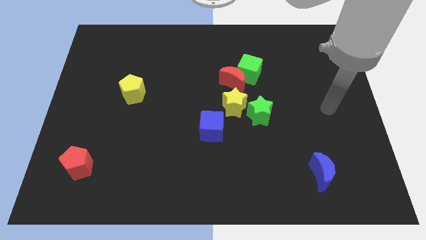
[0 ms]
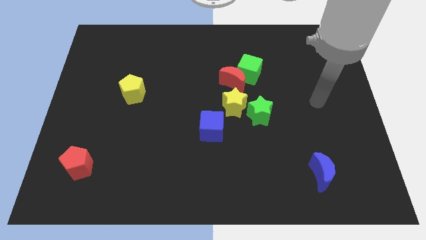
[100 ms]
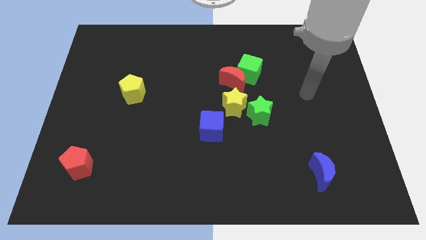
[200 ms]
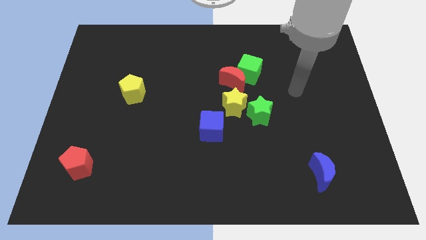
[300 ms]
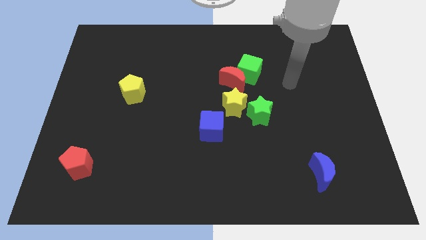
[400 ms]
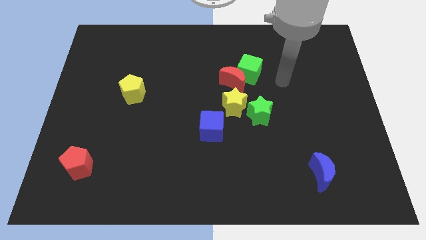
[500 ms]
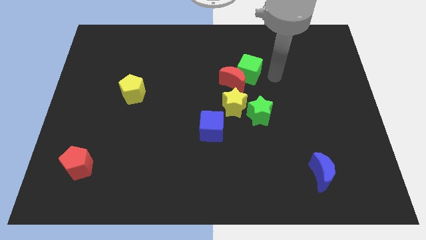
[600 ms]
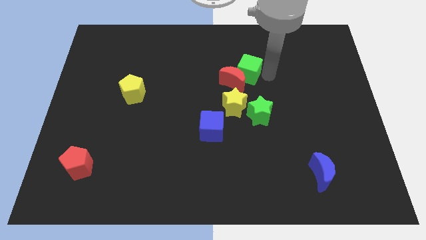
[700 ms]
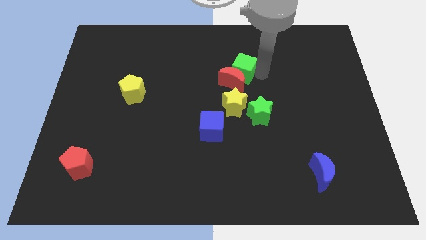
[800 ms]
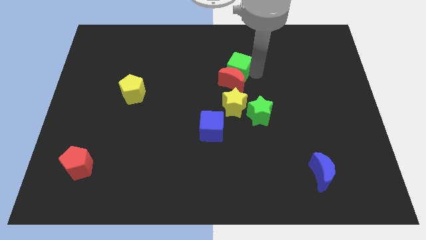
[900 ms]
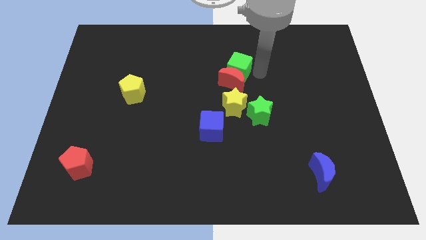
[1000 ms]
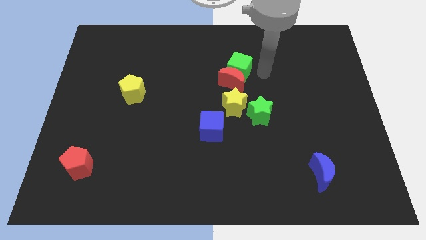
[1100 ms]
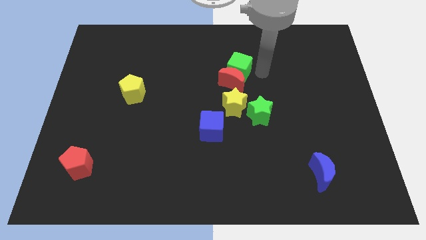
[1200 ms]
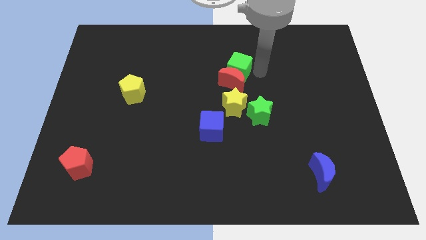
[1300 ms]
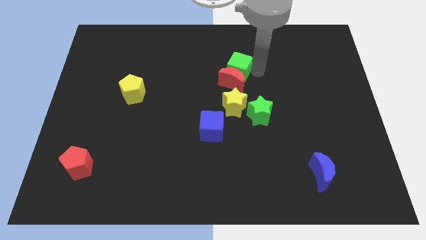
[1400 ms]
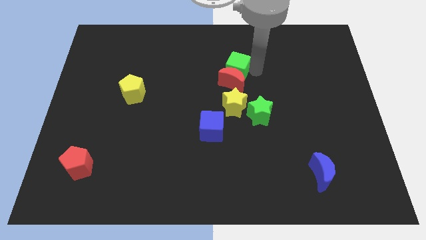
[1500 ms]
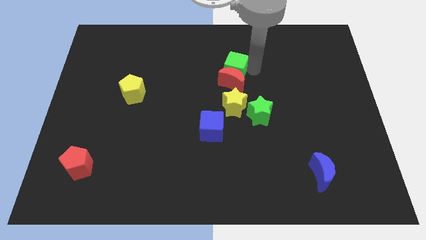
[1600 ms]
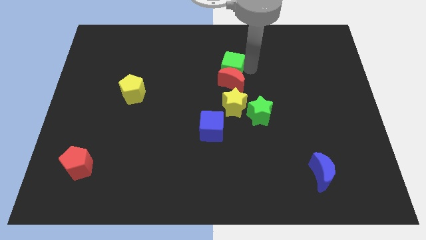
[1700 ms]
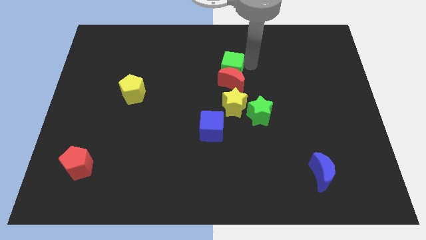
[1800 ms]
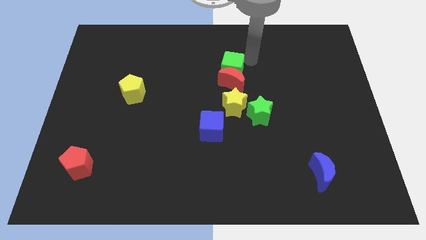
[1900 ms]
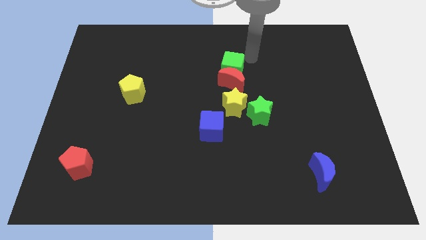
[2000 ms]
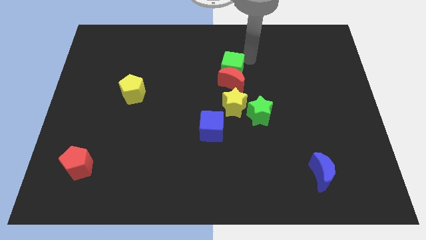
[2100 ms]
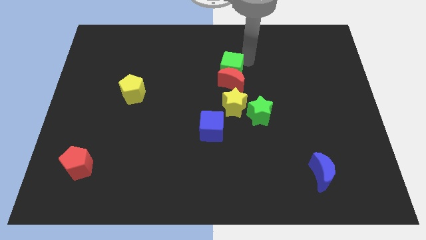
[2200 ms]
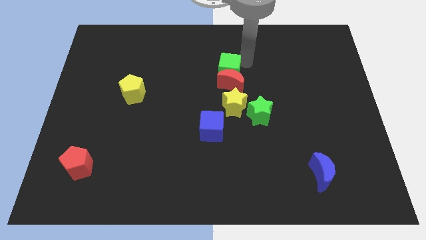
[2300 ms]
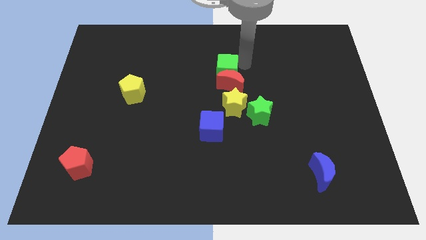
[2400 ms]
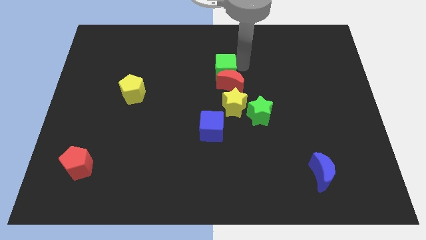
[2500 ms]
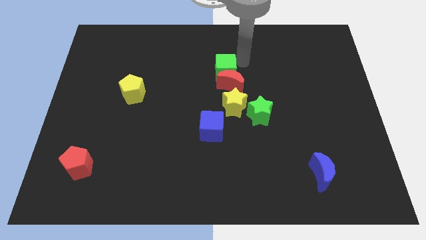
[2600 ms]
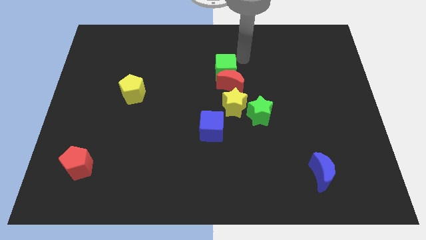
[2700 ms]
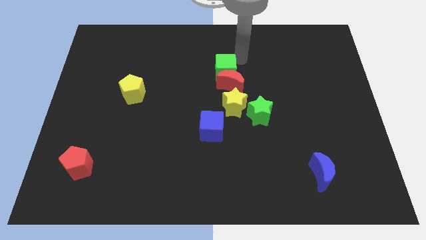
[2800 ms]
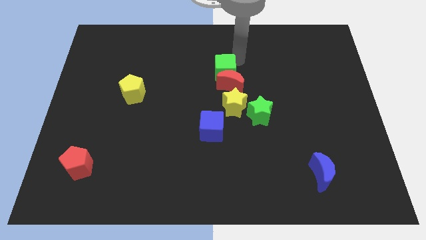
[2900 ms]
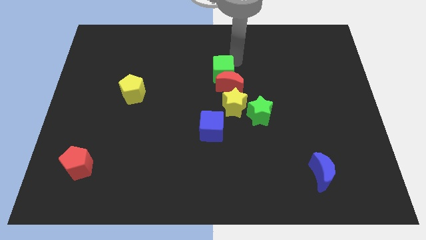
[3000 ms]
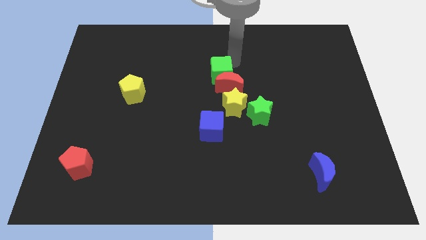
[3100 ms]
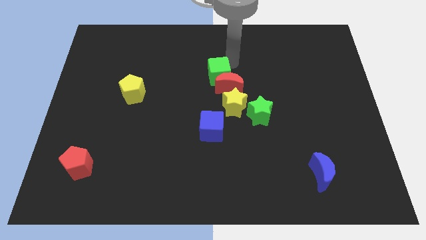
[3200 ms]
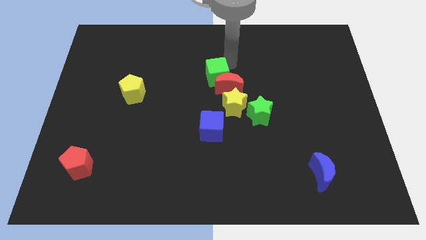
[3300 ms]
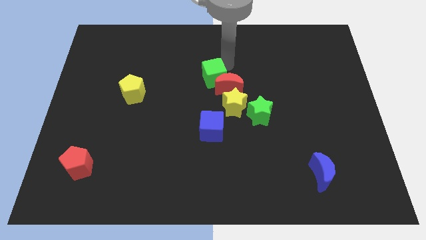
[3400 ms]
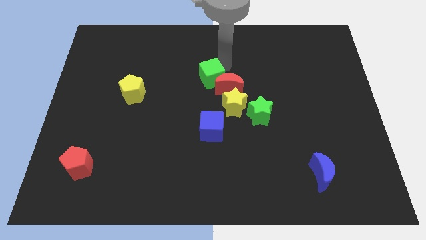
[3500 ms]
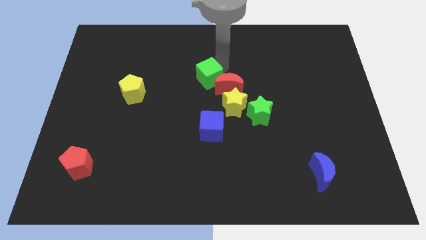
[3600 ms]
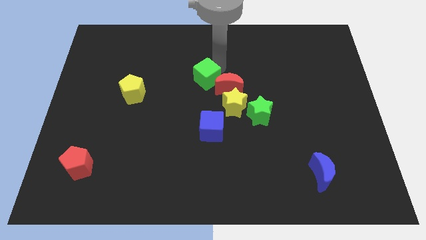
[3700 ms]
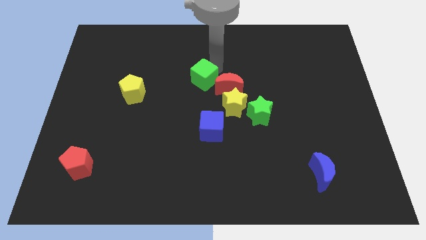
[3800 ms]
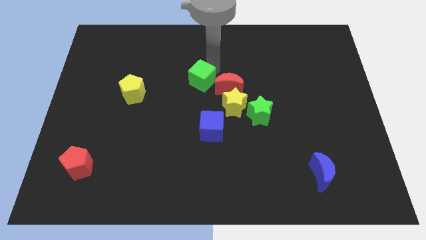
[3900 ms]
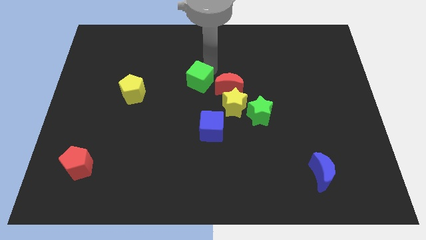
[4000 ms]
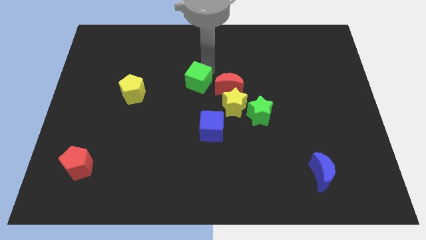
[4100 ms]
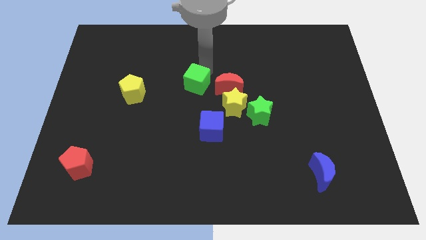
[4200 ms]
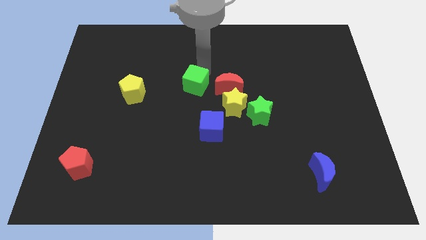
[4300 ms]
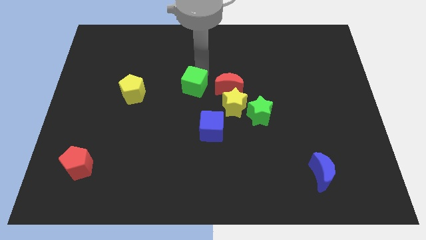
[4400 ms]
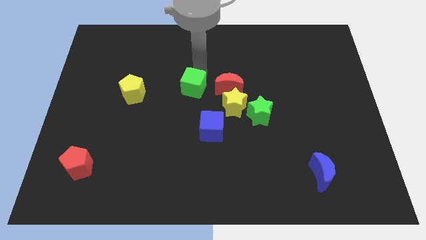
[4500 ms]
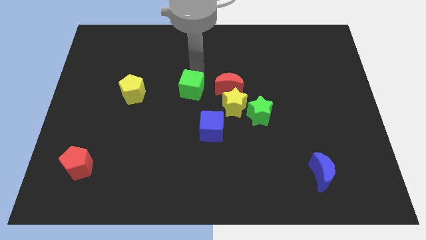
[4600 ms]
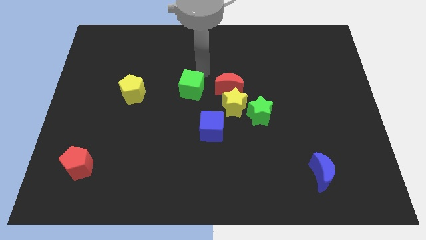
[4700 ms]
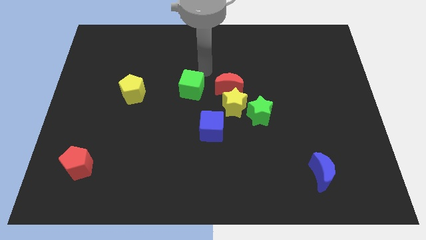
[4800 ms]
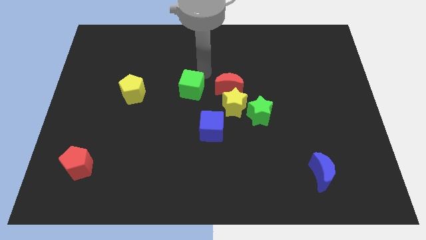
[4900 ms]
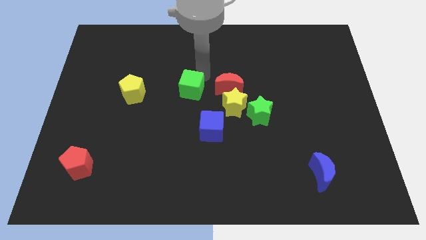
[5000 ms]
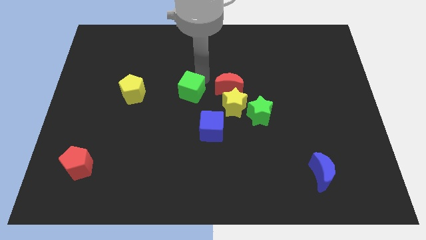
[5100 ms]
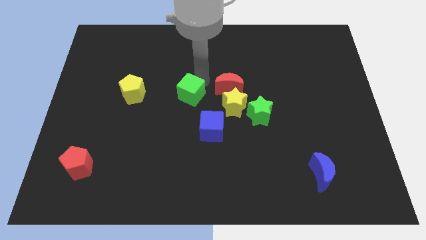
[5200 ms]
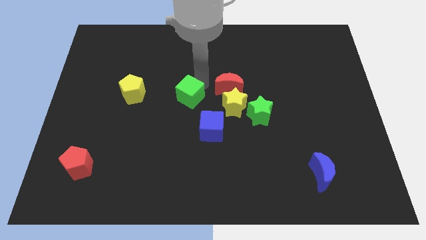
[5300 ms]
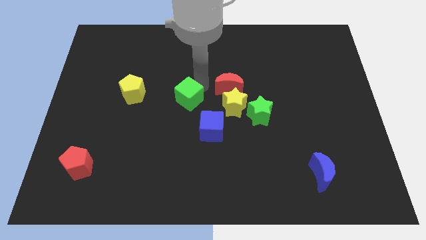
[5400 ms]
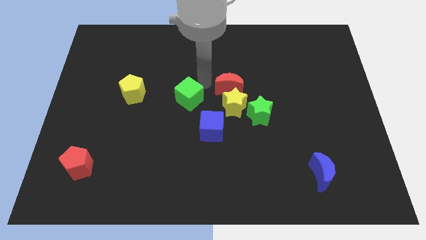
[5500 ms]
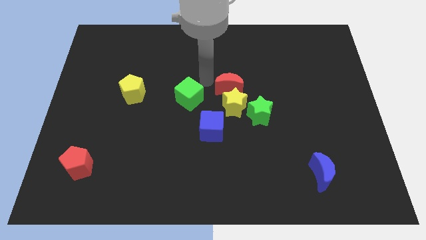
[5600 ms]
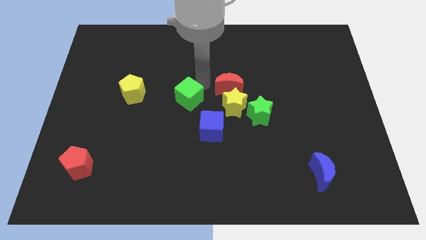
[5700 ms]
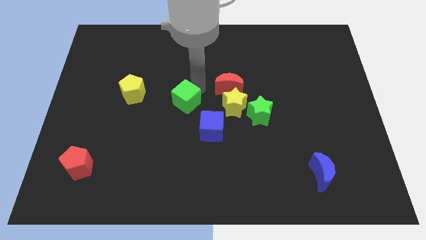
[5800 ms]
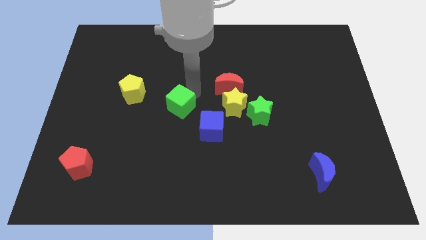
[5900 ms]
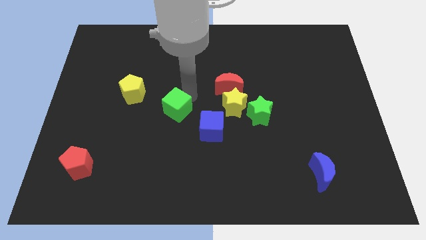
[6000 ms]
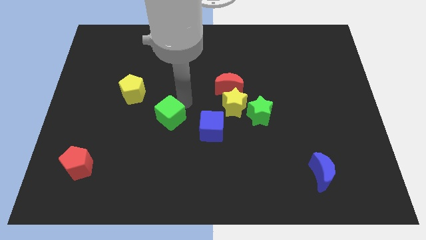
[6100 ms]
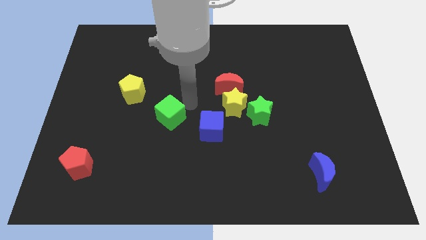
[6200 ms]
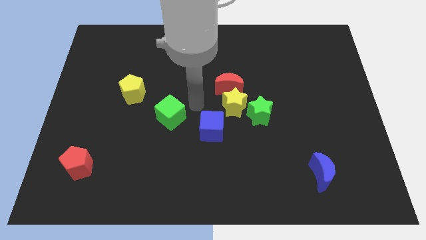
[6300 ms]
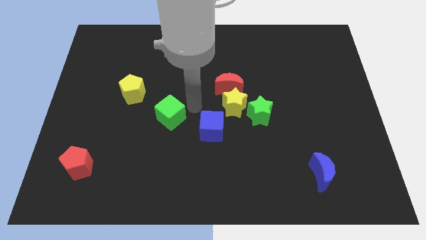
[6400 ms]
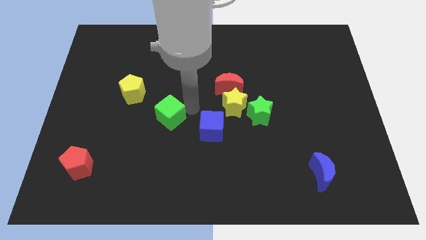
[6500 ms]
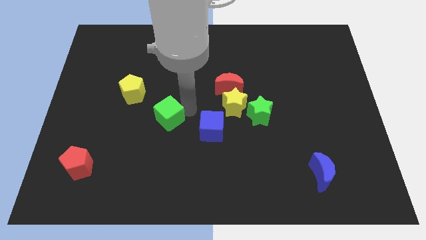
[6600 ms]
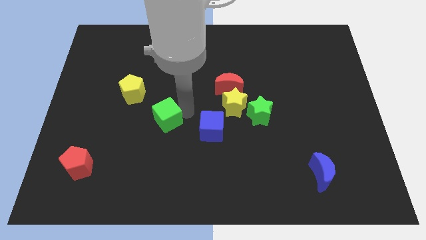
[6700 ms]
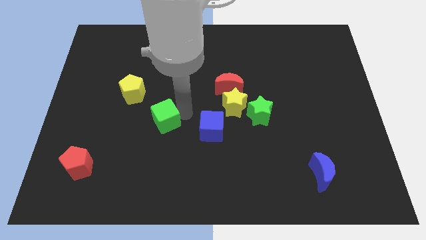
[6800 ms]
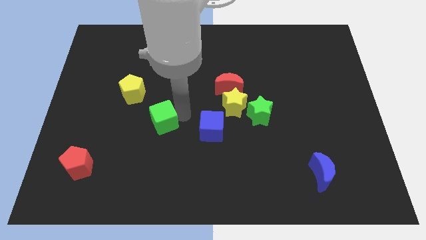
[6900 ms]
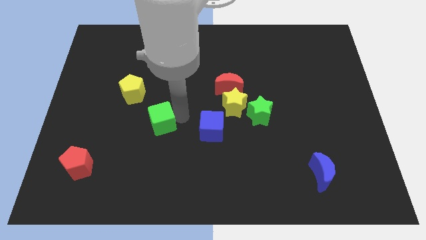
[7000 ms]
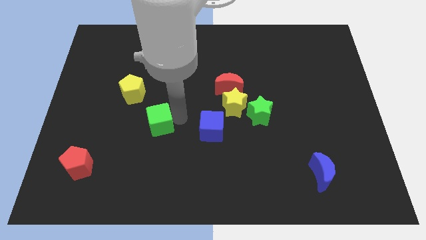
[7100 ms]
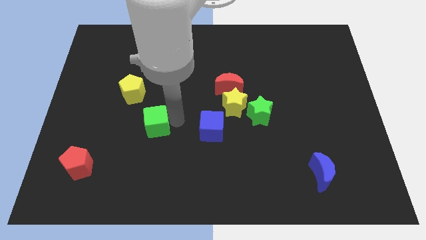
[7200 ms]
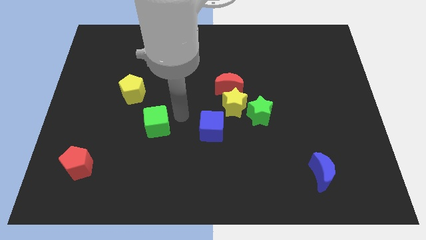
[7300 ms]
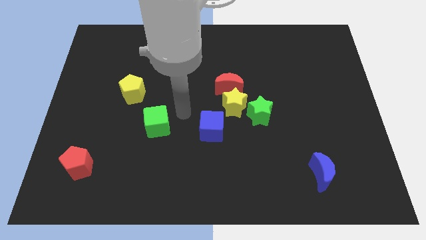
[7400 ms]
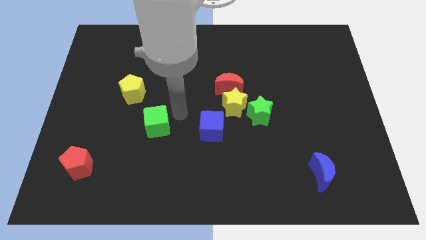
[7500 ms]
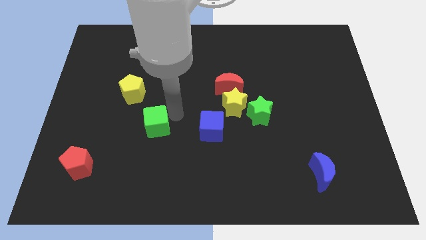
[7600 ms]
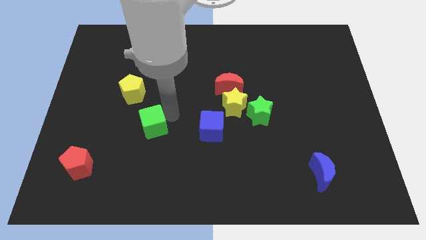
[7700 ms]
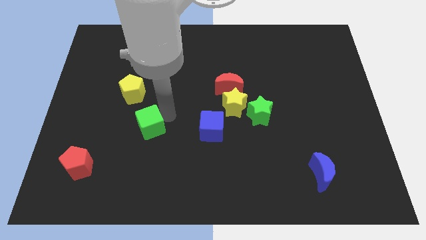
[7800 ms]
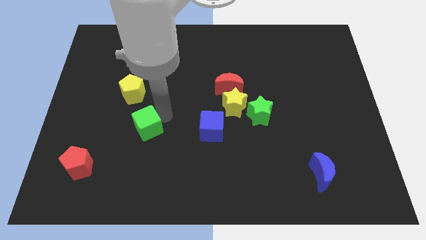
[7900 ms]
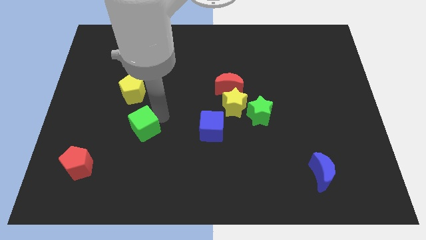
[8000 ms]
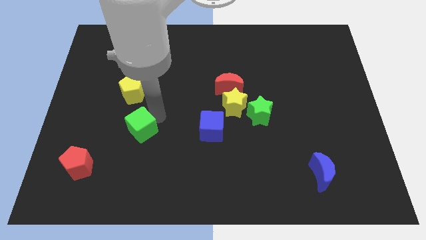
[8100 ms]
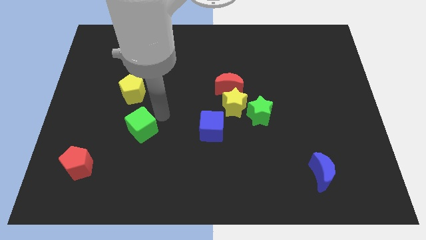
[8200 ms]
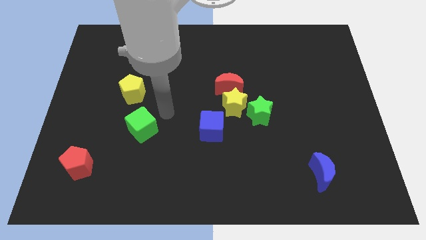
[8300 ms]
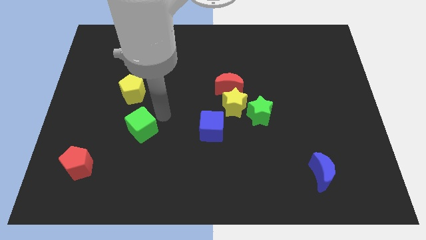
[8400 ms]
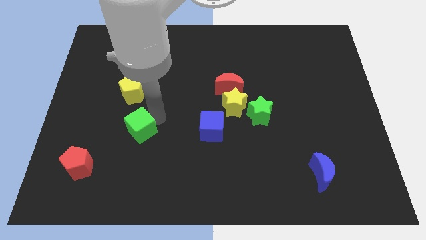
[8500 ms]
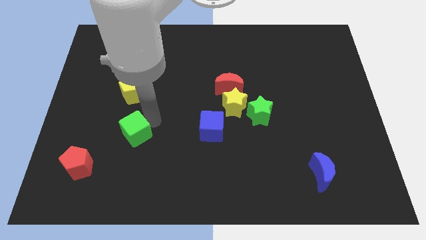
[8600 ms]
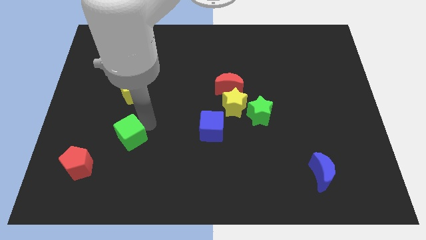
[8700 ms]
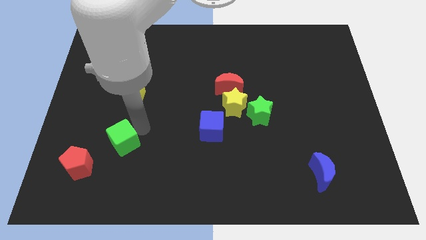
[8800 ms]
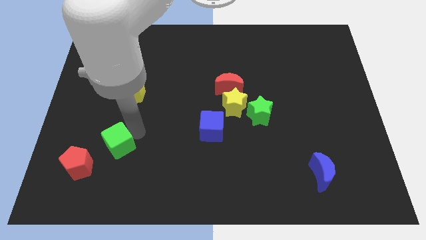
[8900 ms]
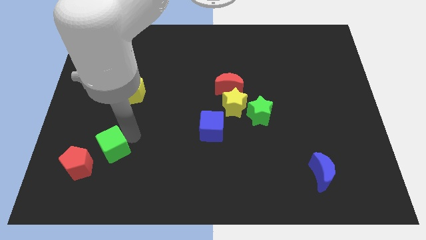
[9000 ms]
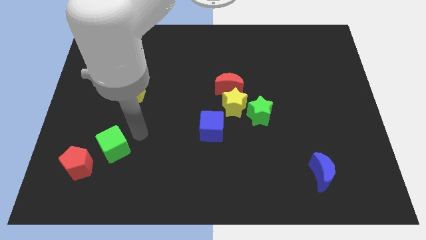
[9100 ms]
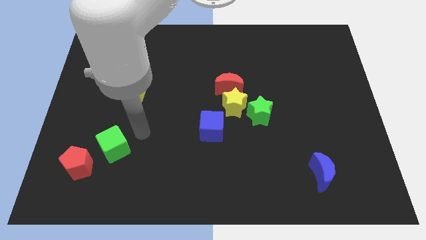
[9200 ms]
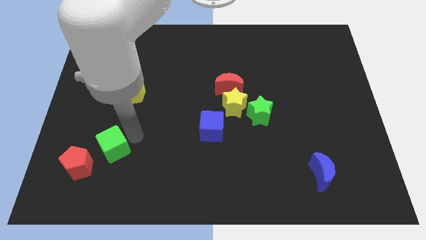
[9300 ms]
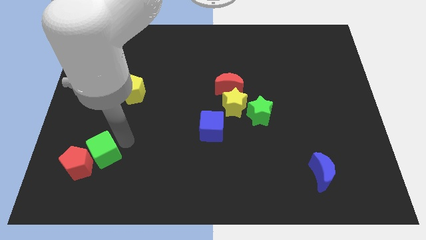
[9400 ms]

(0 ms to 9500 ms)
put the green cube next to the red pentagon
